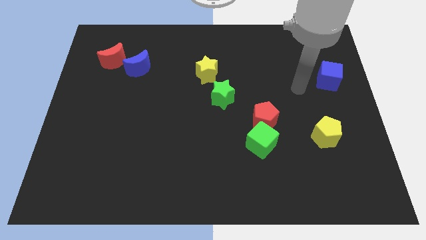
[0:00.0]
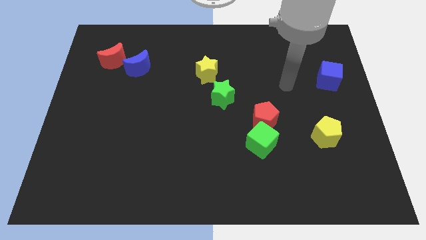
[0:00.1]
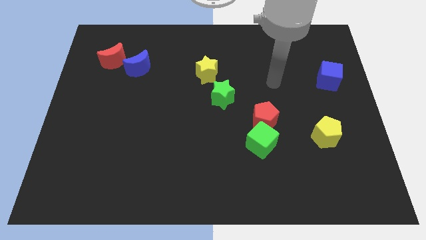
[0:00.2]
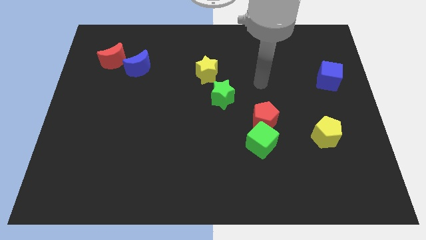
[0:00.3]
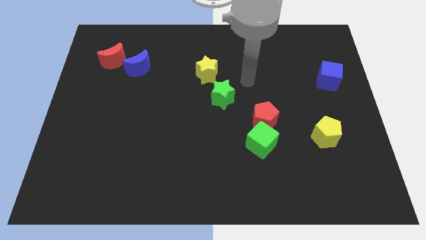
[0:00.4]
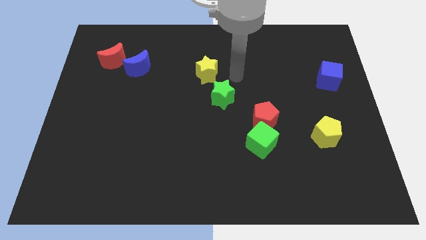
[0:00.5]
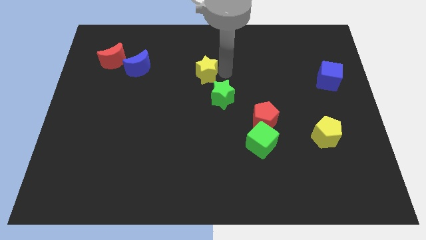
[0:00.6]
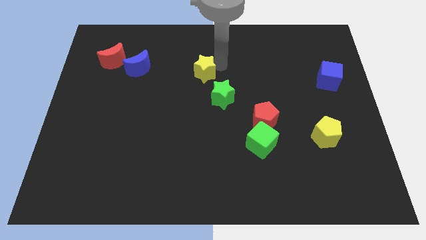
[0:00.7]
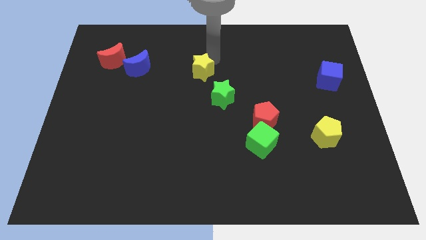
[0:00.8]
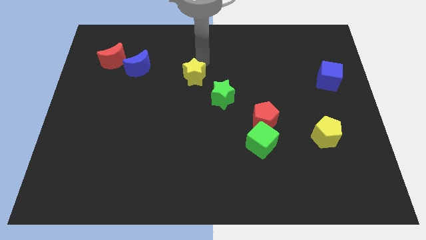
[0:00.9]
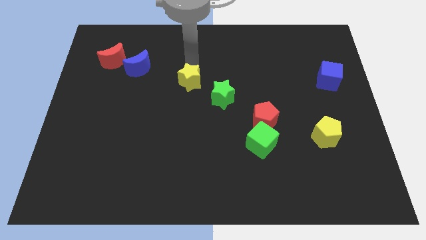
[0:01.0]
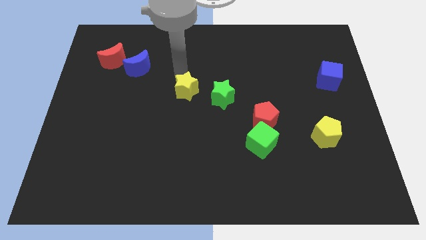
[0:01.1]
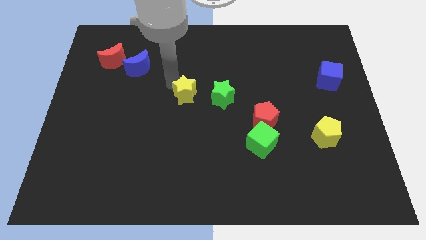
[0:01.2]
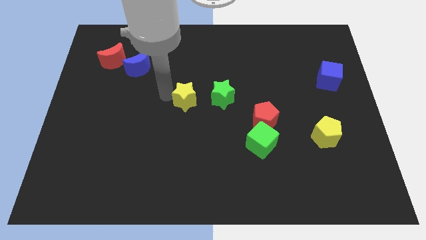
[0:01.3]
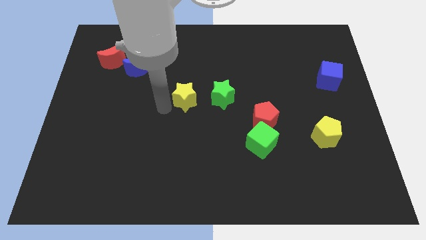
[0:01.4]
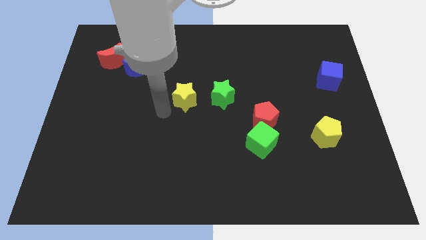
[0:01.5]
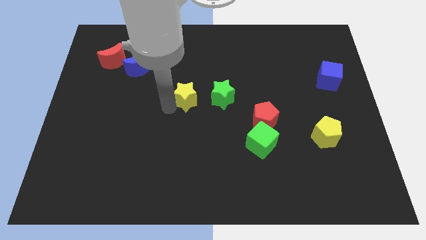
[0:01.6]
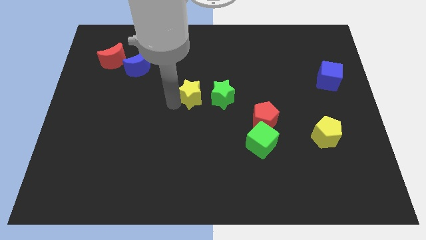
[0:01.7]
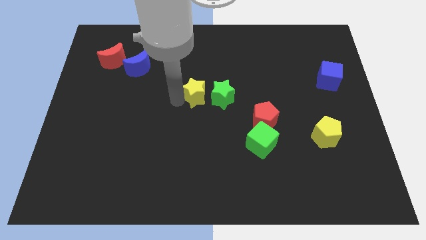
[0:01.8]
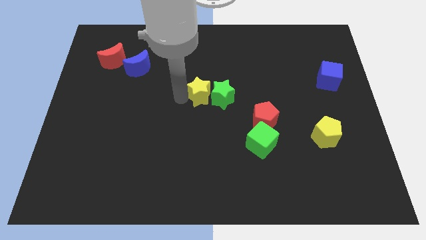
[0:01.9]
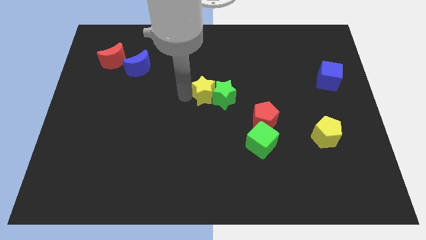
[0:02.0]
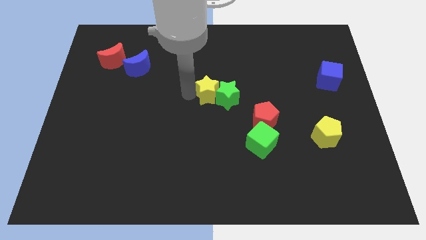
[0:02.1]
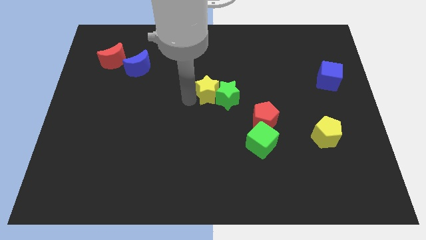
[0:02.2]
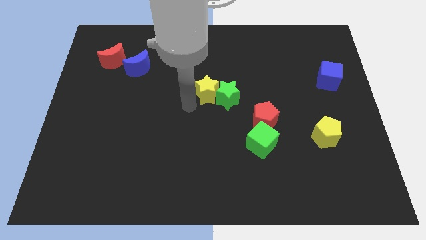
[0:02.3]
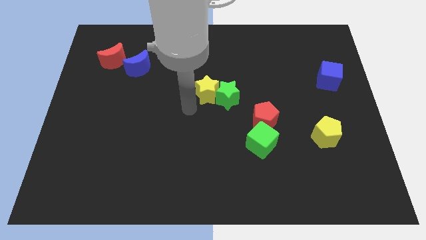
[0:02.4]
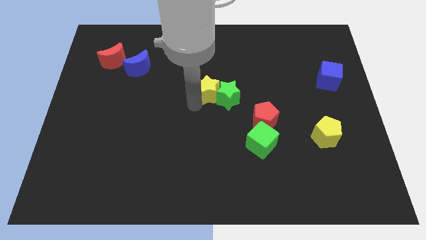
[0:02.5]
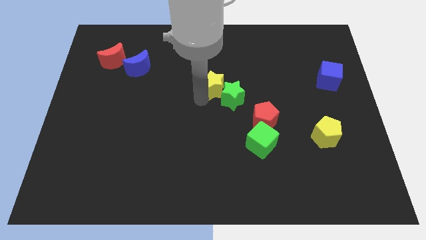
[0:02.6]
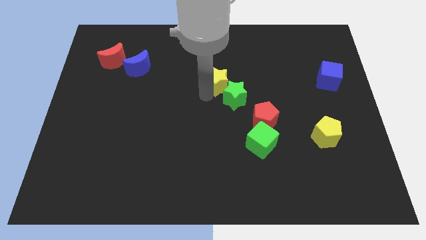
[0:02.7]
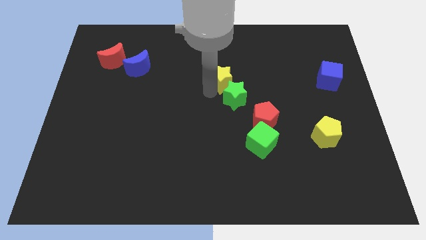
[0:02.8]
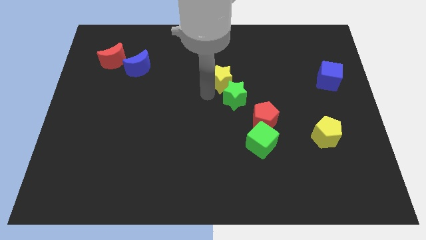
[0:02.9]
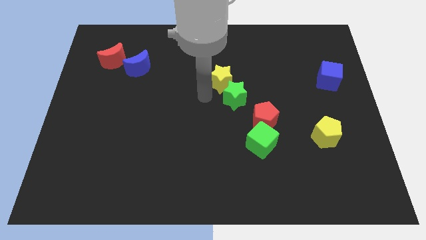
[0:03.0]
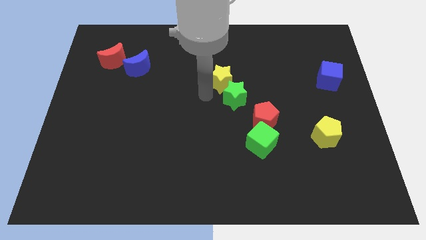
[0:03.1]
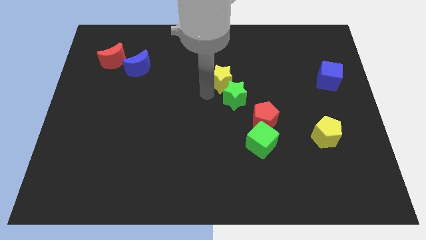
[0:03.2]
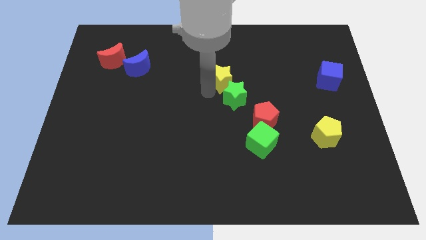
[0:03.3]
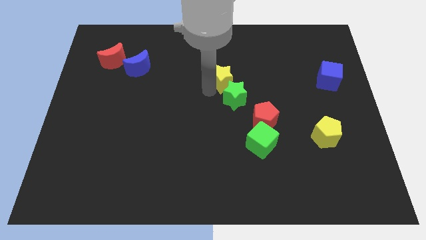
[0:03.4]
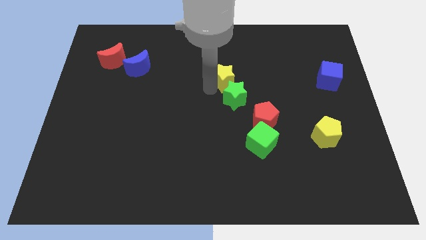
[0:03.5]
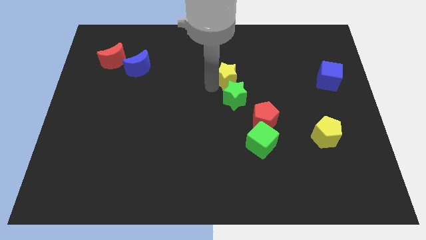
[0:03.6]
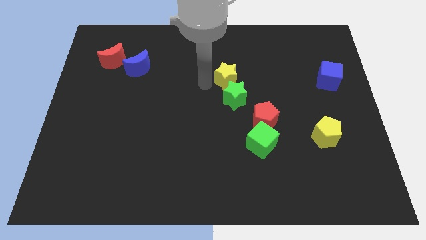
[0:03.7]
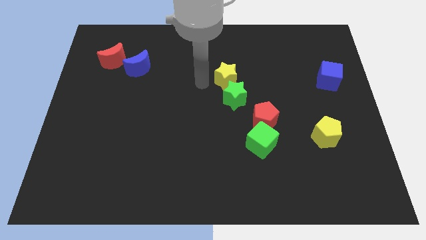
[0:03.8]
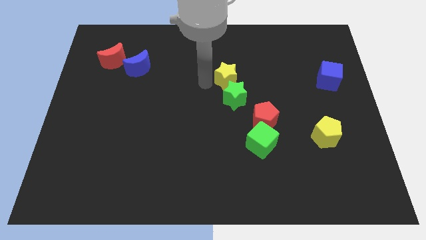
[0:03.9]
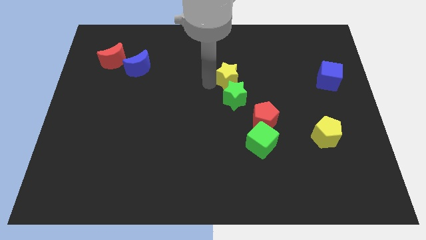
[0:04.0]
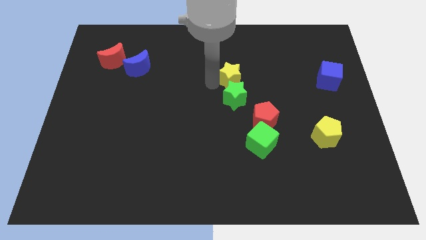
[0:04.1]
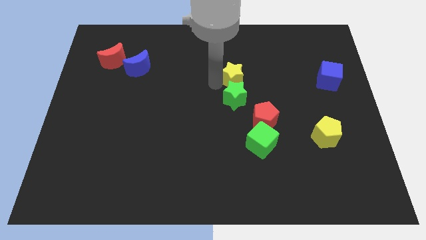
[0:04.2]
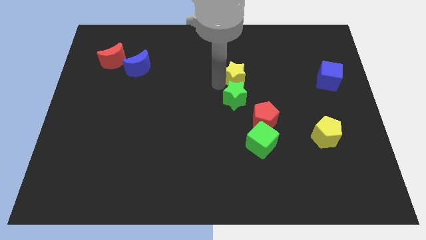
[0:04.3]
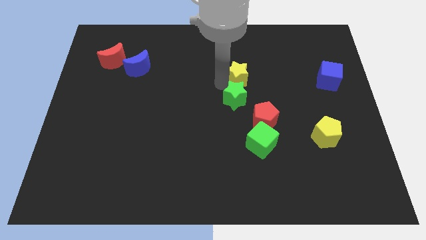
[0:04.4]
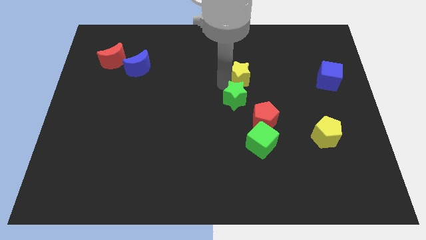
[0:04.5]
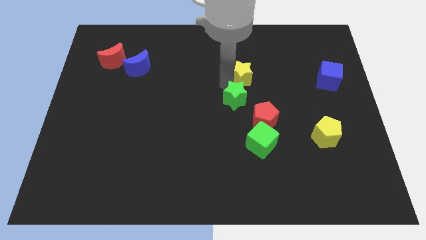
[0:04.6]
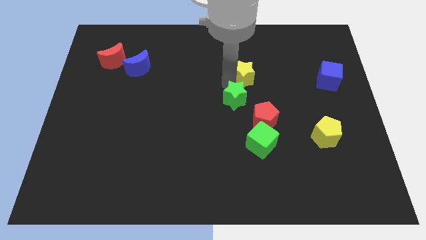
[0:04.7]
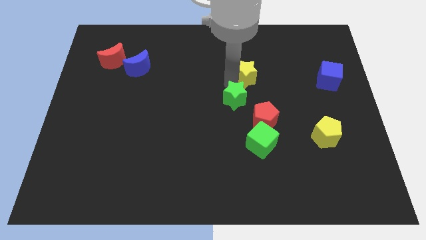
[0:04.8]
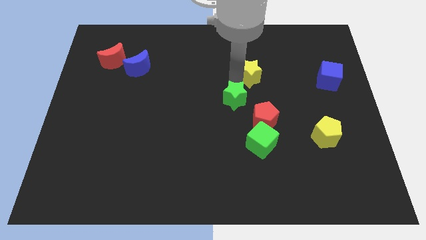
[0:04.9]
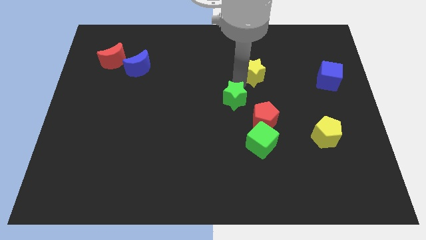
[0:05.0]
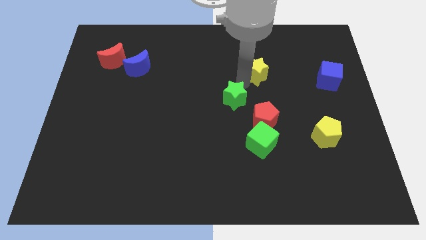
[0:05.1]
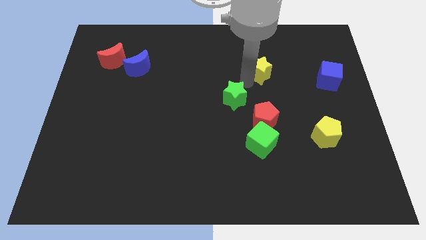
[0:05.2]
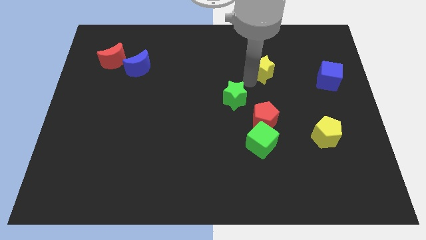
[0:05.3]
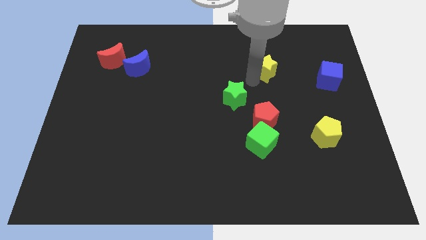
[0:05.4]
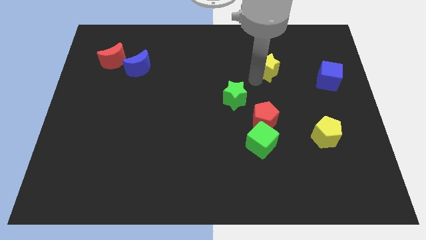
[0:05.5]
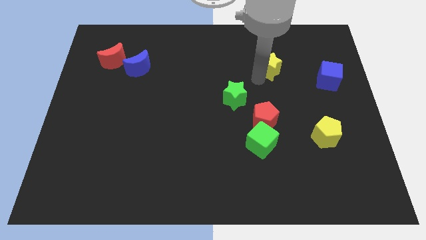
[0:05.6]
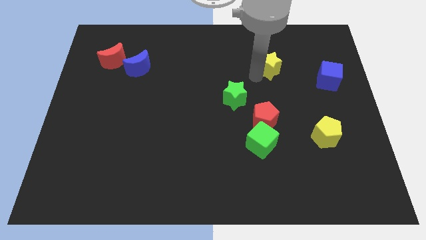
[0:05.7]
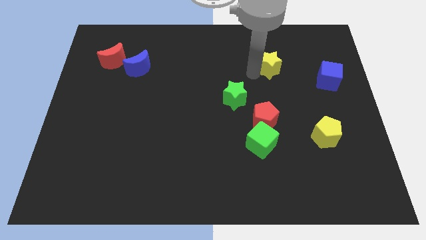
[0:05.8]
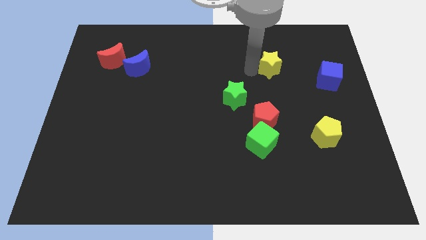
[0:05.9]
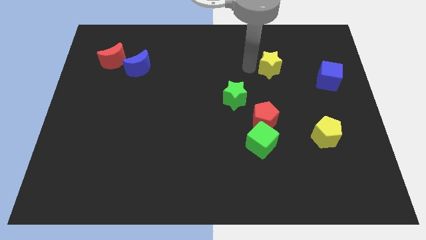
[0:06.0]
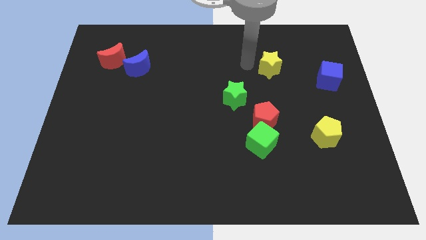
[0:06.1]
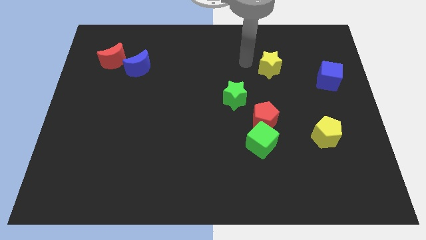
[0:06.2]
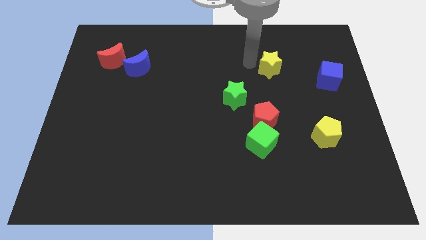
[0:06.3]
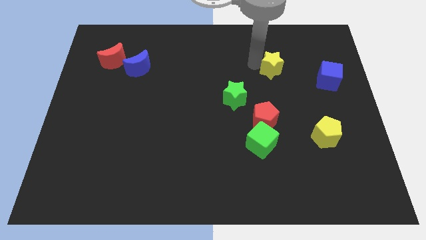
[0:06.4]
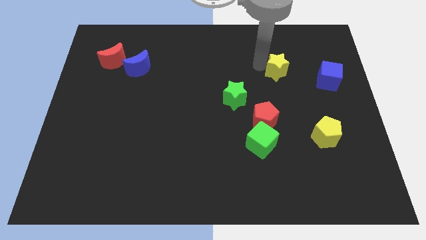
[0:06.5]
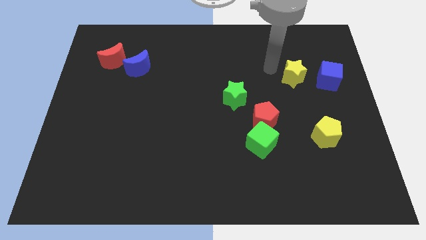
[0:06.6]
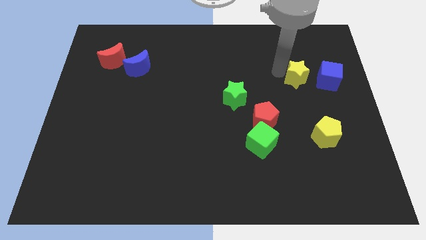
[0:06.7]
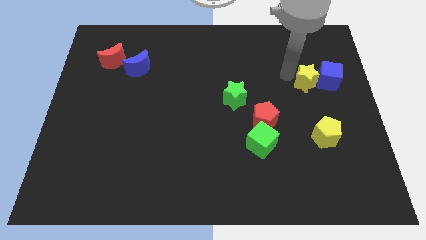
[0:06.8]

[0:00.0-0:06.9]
put the yellow star close to the blue cube
